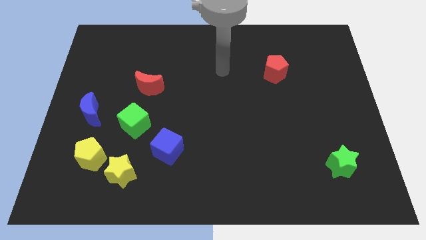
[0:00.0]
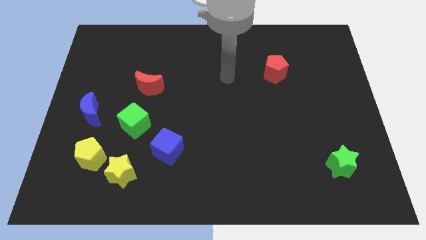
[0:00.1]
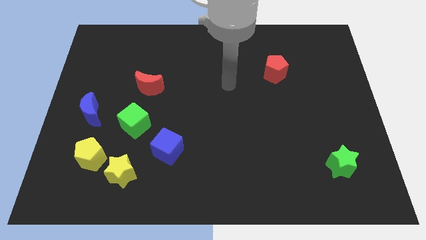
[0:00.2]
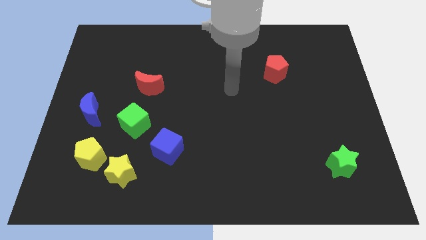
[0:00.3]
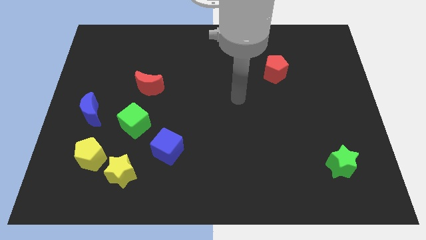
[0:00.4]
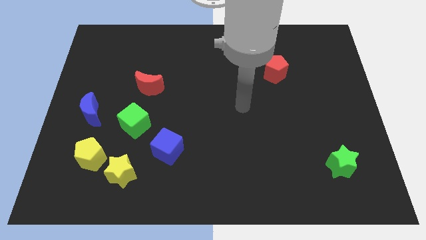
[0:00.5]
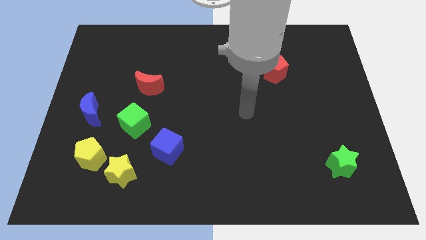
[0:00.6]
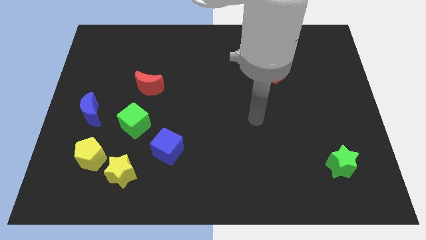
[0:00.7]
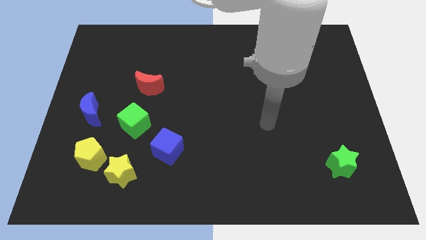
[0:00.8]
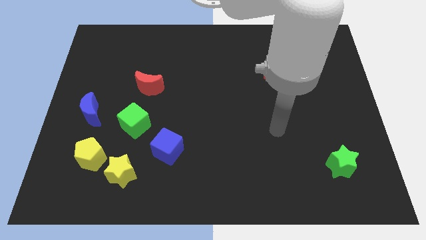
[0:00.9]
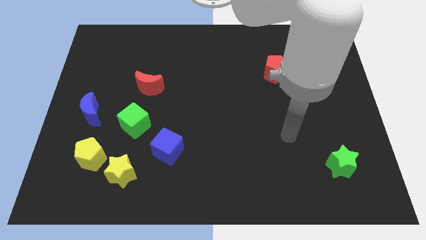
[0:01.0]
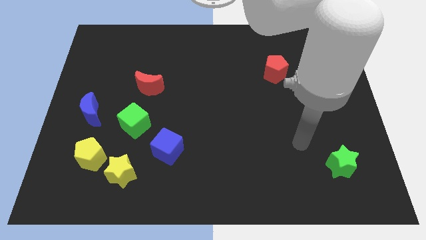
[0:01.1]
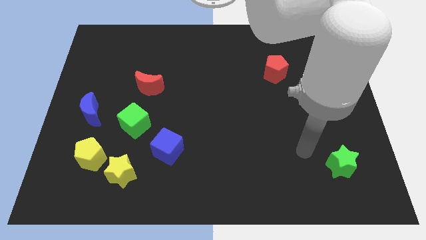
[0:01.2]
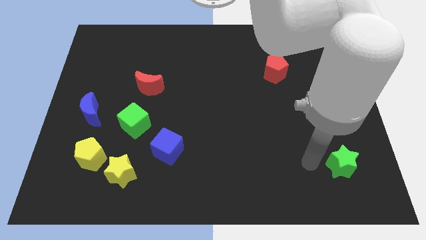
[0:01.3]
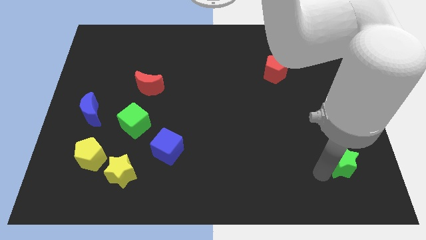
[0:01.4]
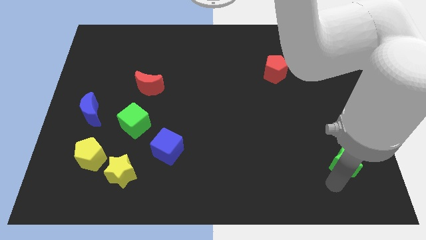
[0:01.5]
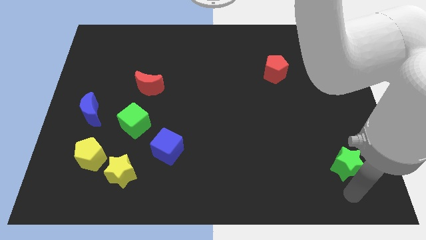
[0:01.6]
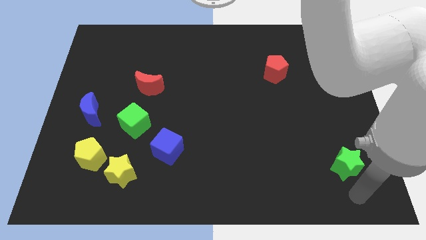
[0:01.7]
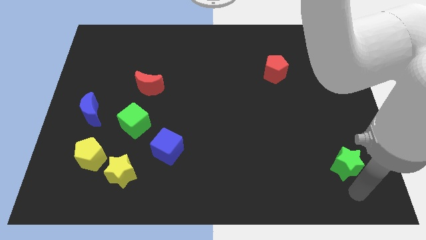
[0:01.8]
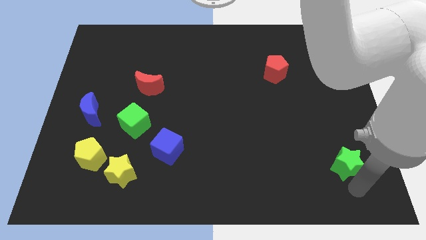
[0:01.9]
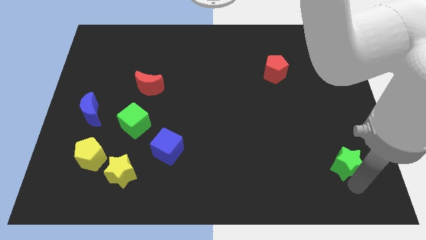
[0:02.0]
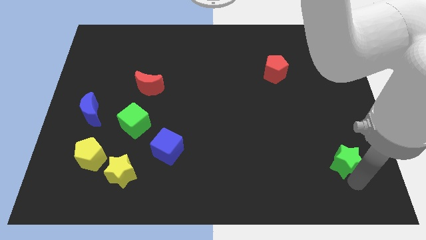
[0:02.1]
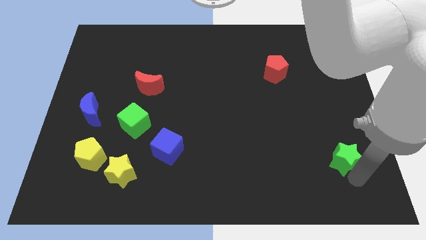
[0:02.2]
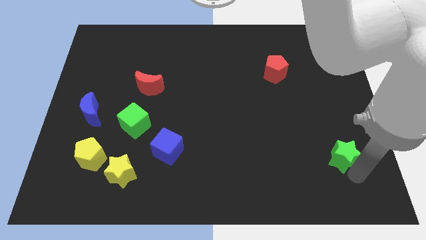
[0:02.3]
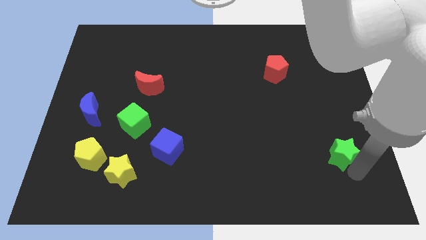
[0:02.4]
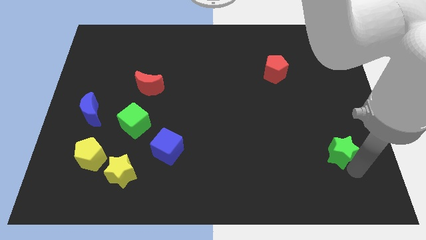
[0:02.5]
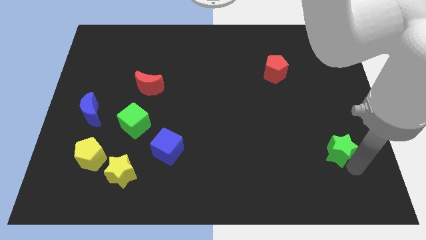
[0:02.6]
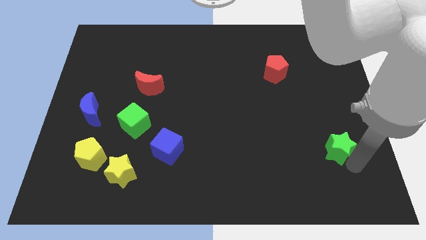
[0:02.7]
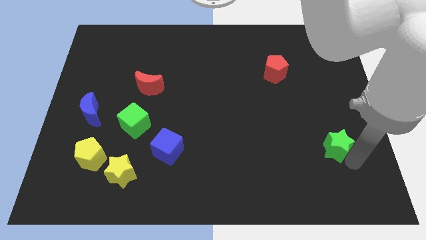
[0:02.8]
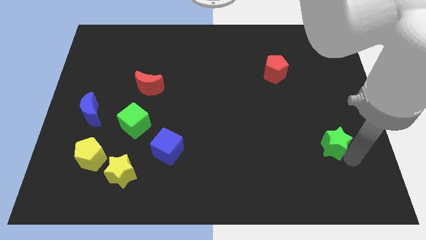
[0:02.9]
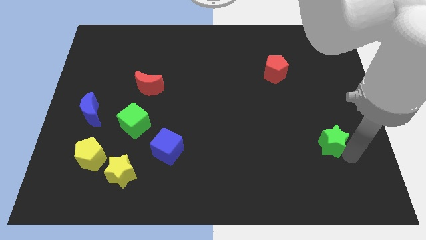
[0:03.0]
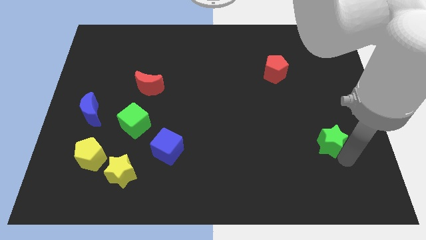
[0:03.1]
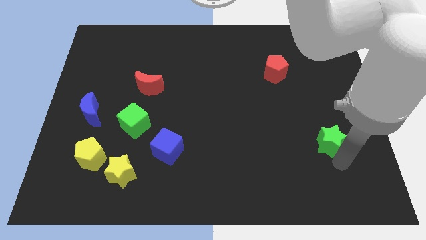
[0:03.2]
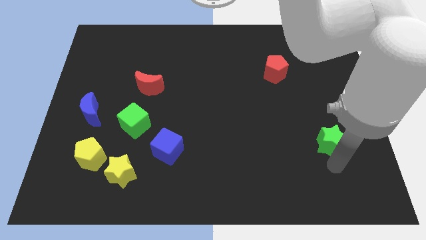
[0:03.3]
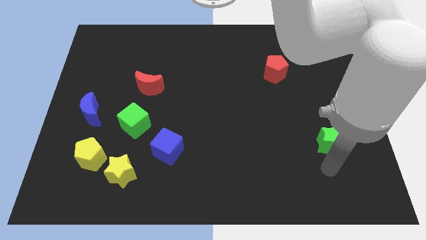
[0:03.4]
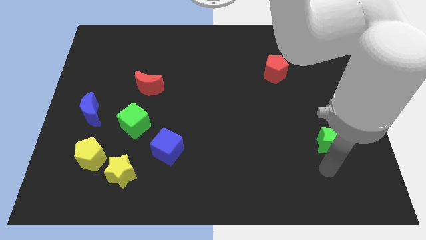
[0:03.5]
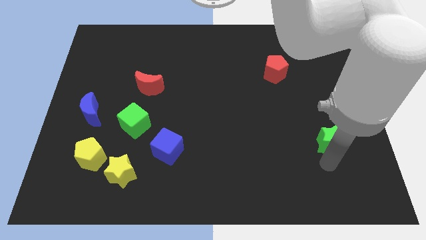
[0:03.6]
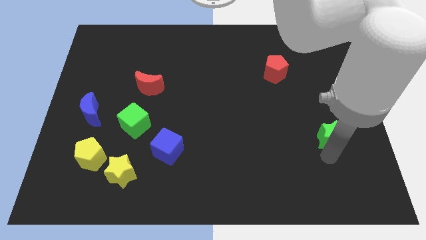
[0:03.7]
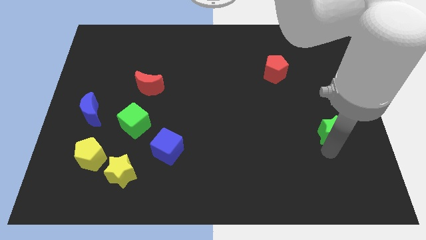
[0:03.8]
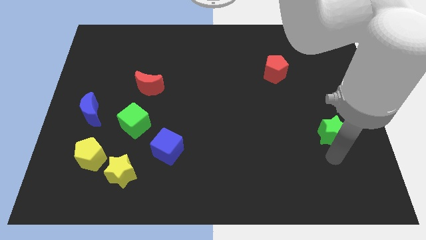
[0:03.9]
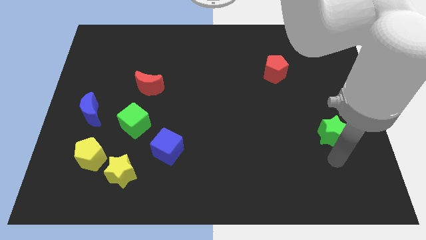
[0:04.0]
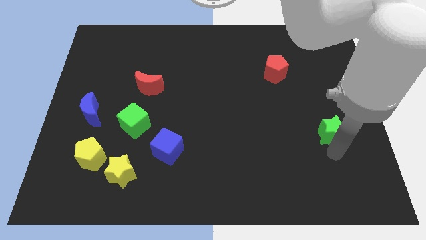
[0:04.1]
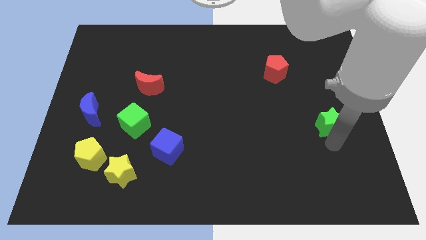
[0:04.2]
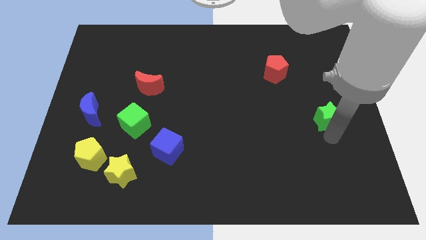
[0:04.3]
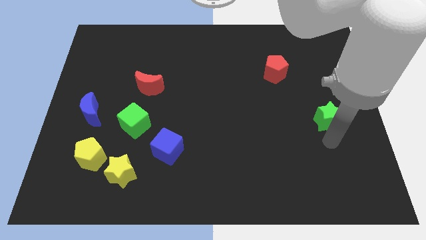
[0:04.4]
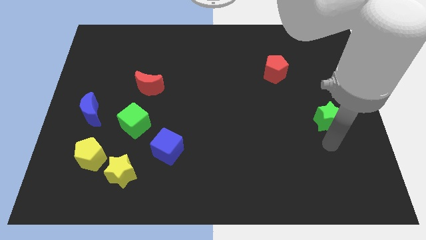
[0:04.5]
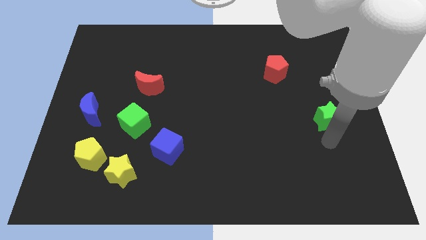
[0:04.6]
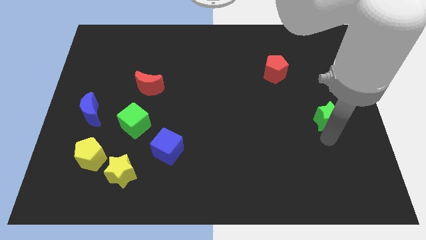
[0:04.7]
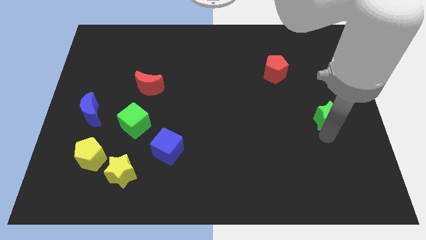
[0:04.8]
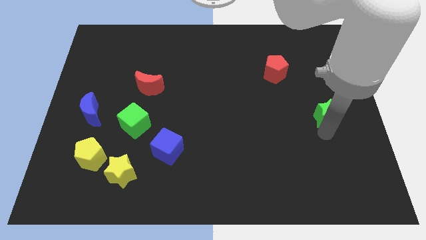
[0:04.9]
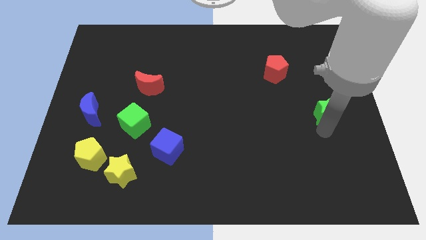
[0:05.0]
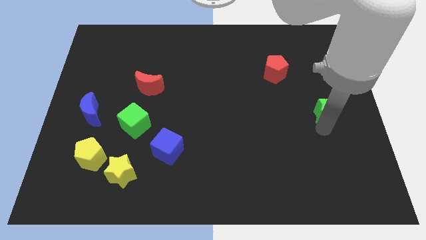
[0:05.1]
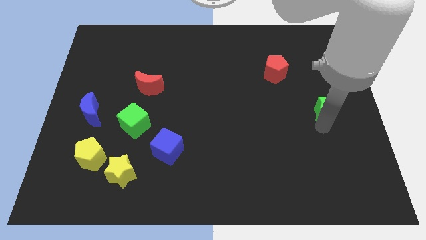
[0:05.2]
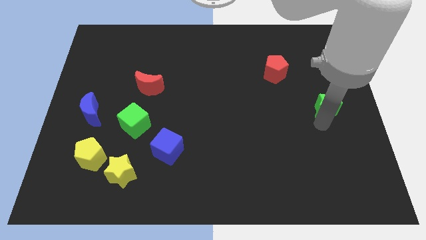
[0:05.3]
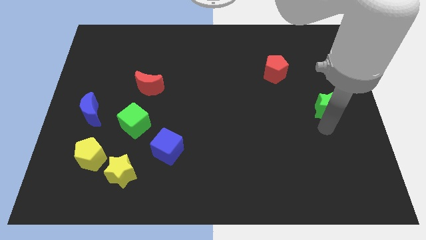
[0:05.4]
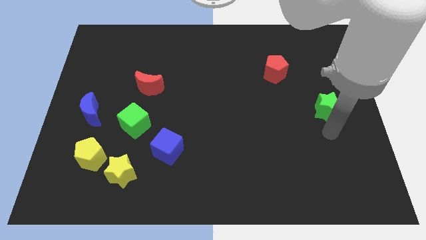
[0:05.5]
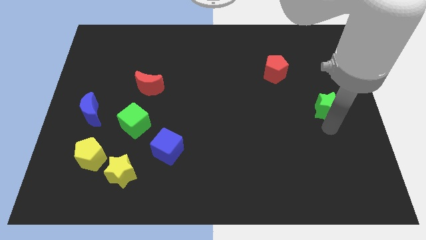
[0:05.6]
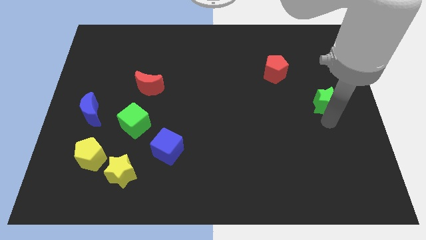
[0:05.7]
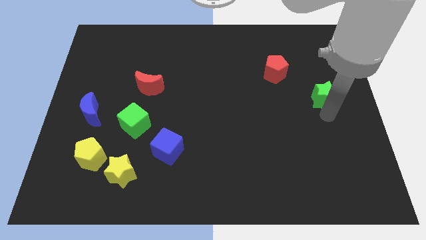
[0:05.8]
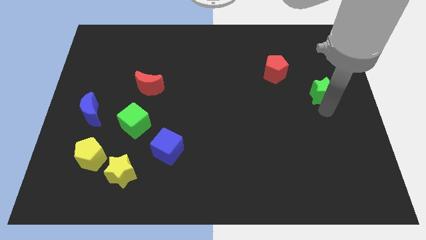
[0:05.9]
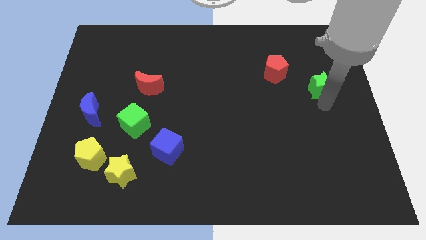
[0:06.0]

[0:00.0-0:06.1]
push the green star up

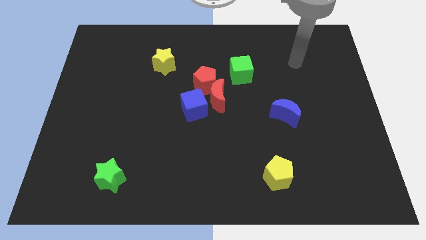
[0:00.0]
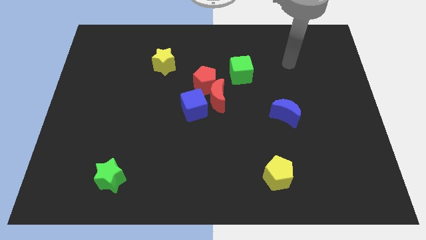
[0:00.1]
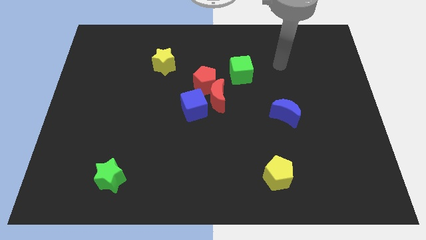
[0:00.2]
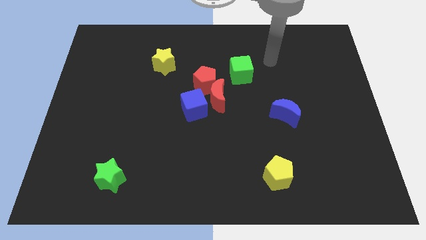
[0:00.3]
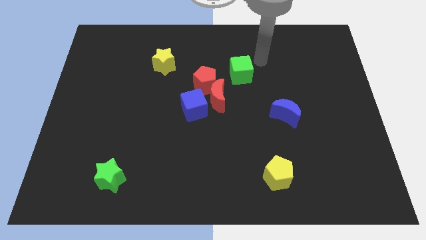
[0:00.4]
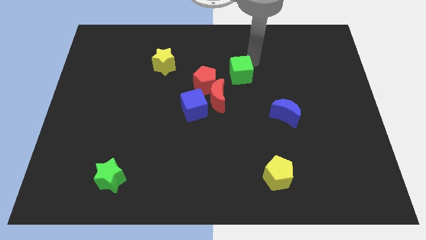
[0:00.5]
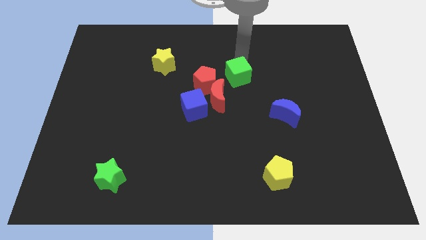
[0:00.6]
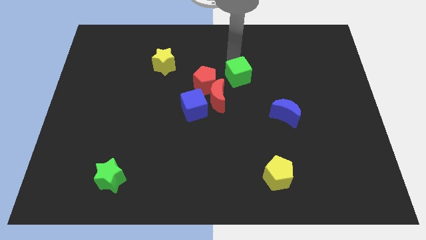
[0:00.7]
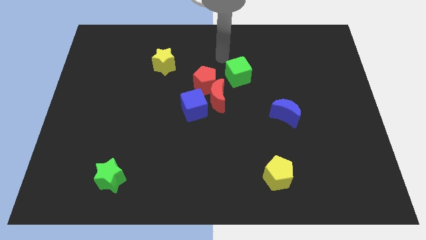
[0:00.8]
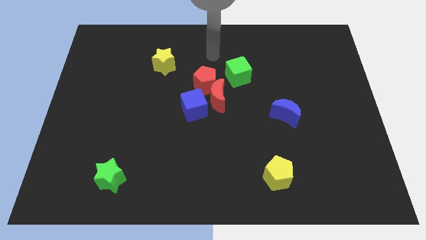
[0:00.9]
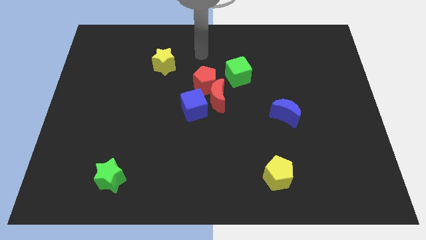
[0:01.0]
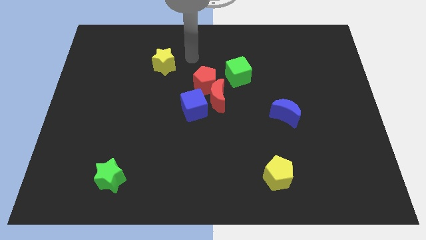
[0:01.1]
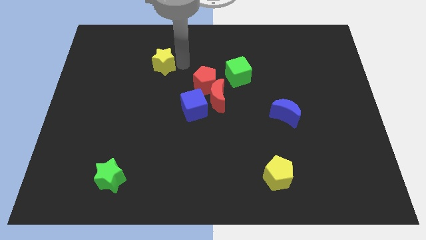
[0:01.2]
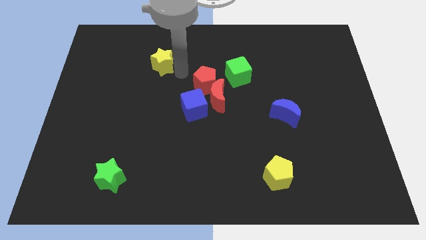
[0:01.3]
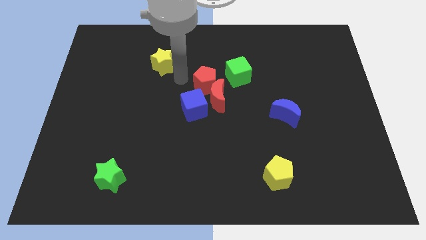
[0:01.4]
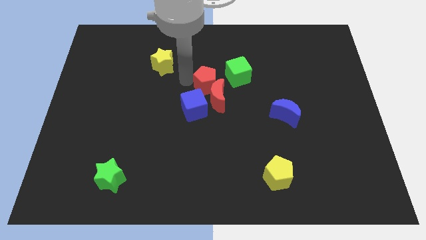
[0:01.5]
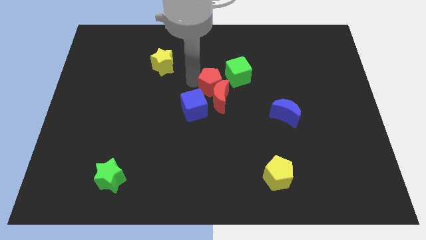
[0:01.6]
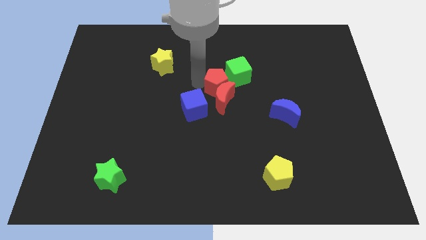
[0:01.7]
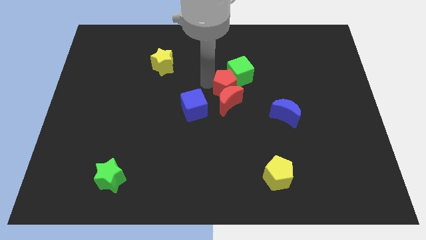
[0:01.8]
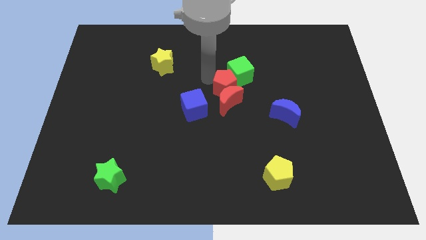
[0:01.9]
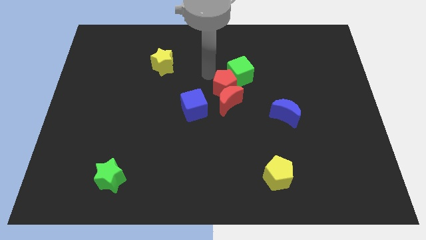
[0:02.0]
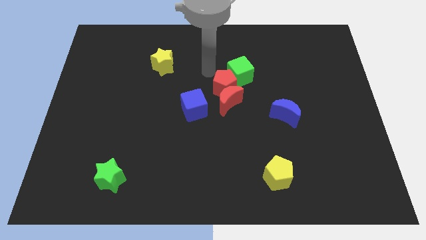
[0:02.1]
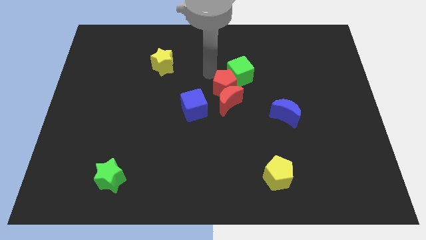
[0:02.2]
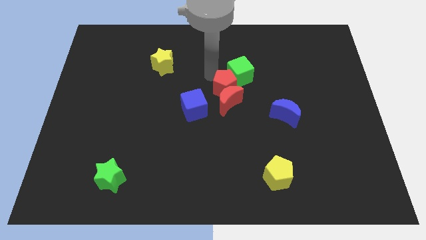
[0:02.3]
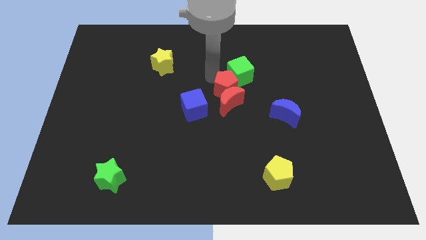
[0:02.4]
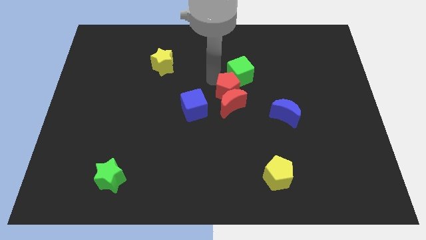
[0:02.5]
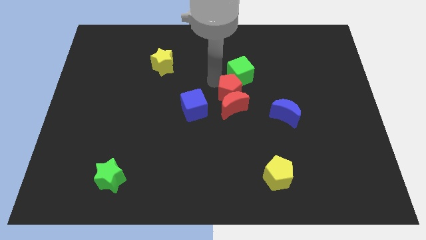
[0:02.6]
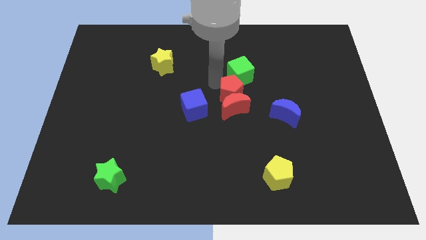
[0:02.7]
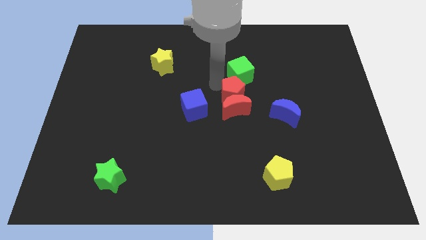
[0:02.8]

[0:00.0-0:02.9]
slightly move the red pentagon diagonally downwards and right
